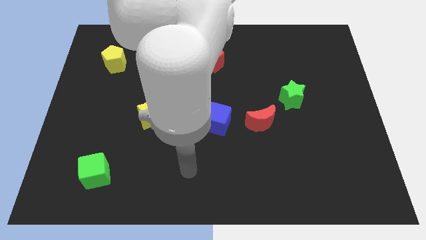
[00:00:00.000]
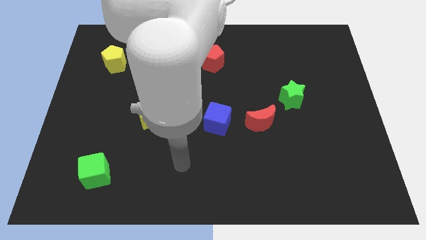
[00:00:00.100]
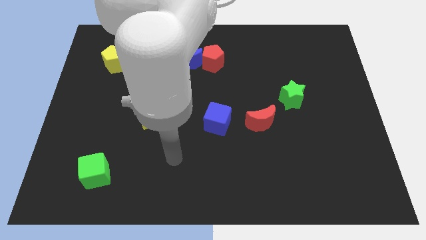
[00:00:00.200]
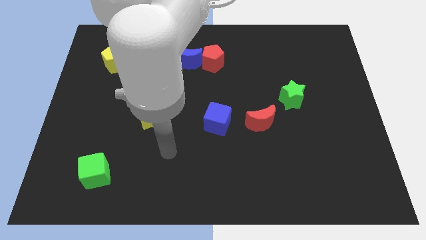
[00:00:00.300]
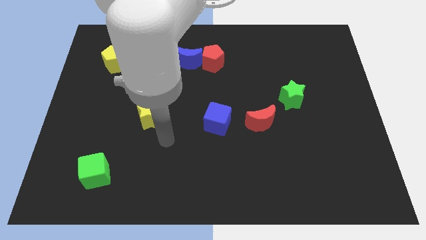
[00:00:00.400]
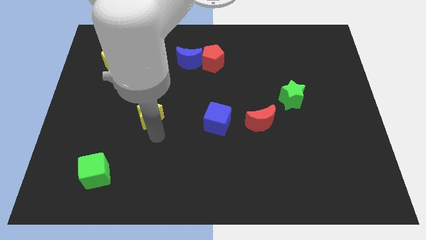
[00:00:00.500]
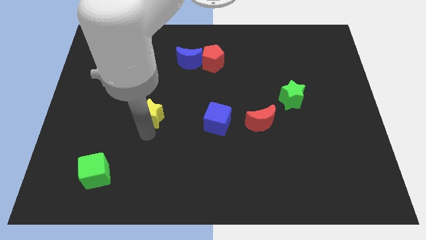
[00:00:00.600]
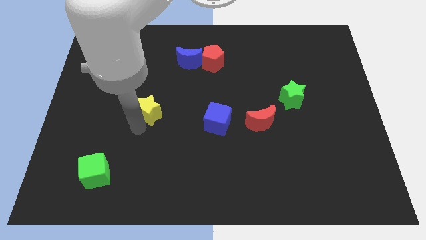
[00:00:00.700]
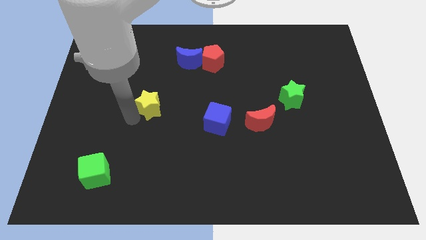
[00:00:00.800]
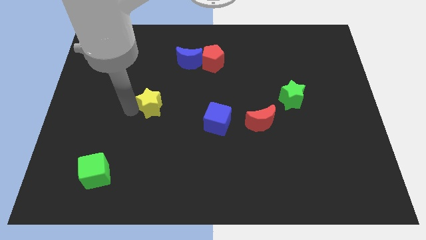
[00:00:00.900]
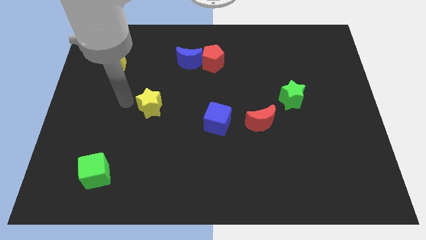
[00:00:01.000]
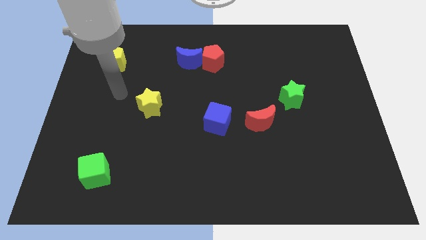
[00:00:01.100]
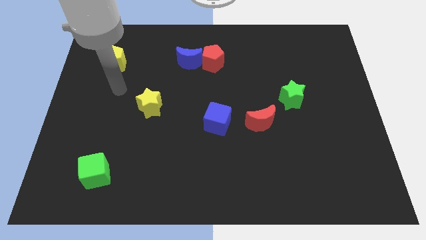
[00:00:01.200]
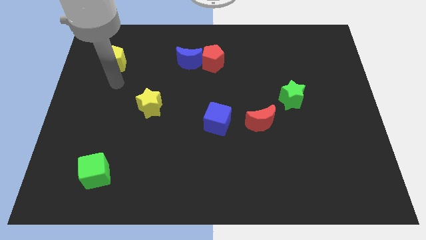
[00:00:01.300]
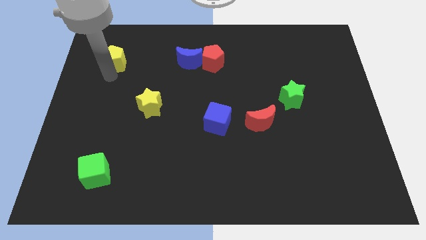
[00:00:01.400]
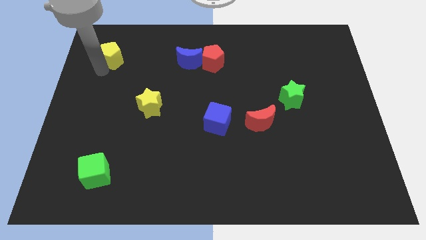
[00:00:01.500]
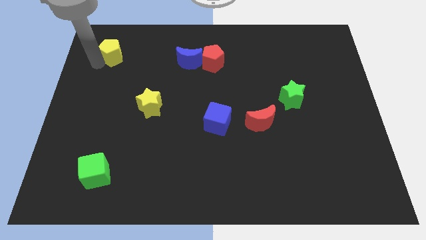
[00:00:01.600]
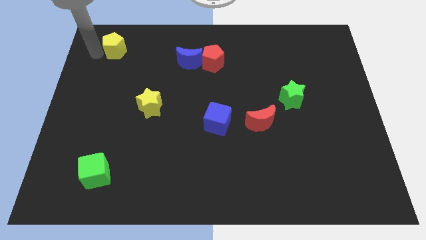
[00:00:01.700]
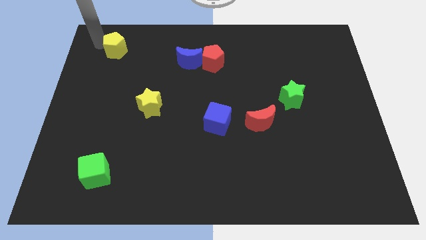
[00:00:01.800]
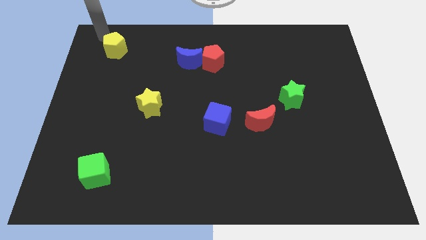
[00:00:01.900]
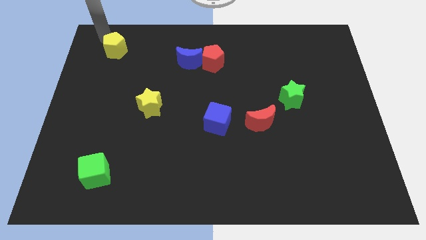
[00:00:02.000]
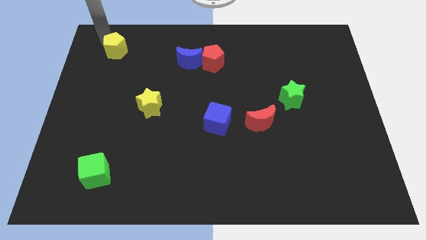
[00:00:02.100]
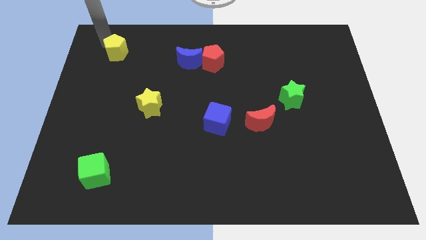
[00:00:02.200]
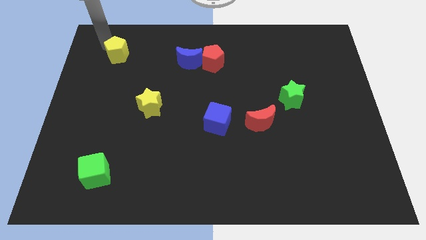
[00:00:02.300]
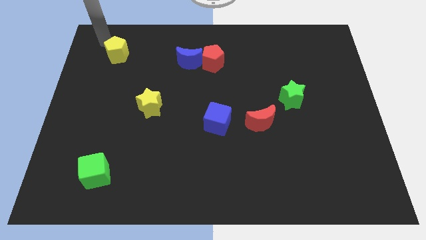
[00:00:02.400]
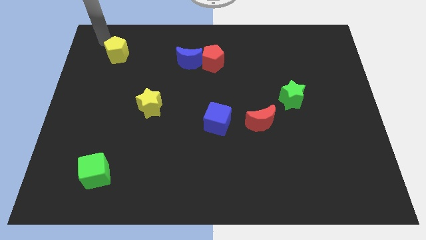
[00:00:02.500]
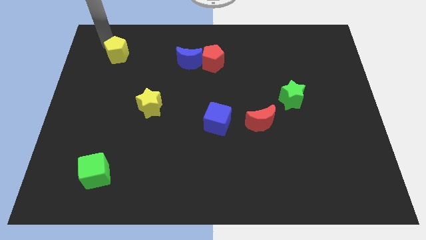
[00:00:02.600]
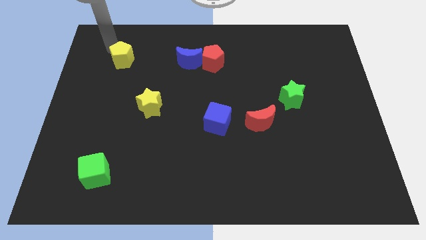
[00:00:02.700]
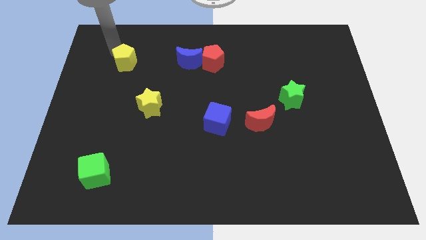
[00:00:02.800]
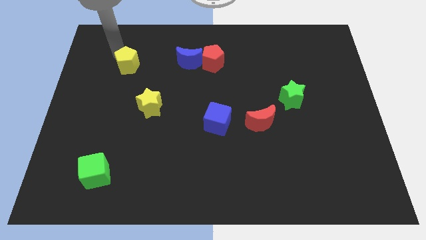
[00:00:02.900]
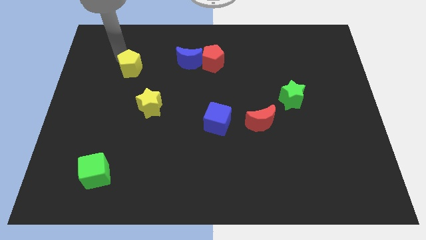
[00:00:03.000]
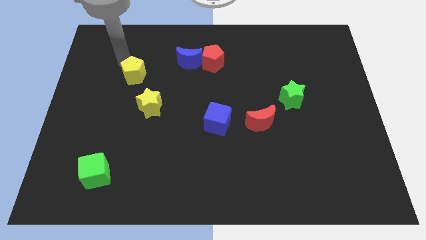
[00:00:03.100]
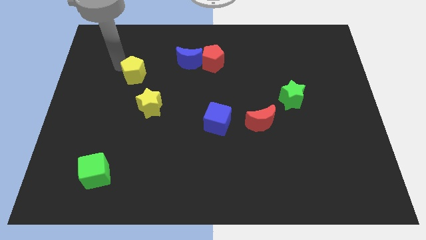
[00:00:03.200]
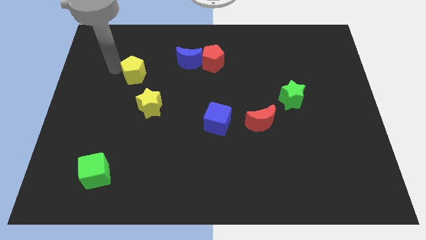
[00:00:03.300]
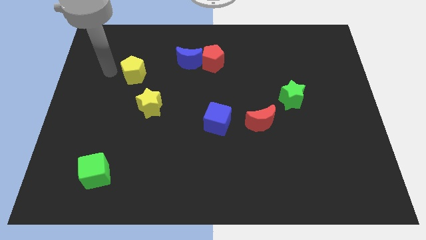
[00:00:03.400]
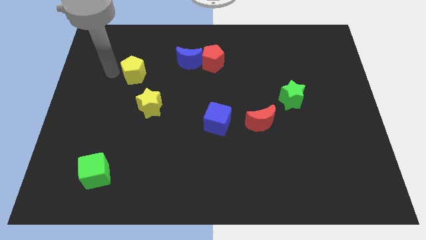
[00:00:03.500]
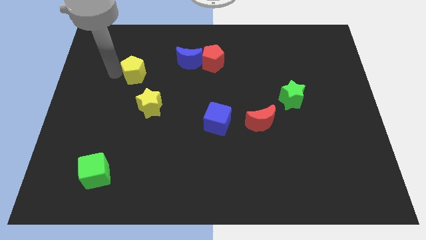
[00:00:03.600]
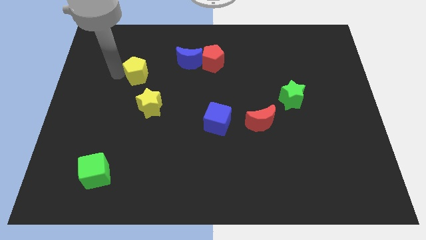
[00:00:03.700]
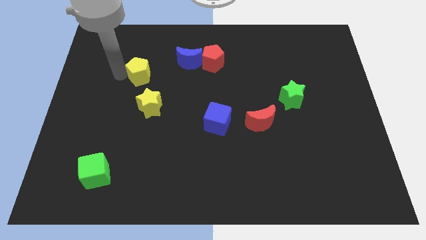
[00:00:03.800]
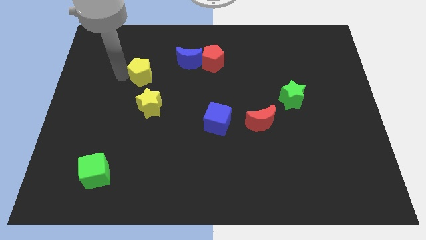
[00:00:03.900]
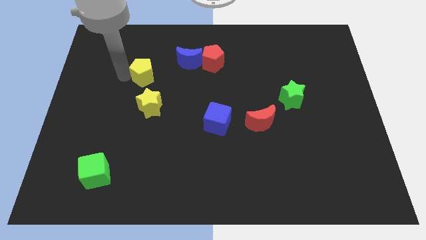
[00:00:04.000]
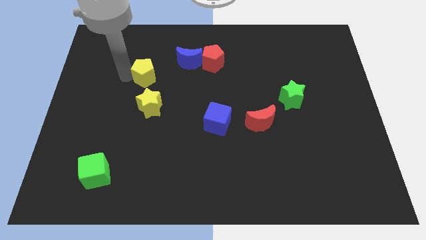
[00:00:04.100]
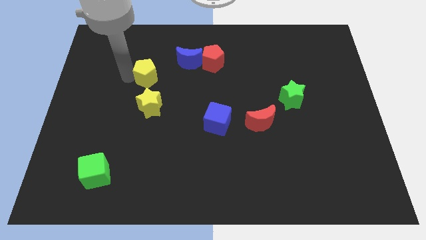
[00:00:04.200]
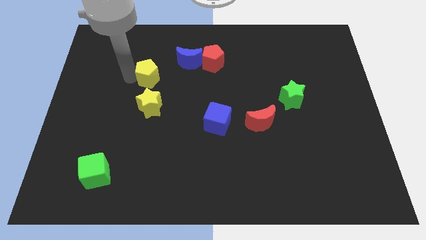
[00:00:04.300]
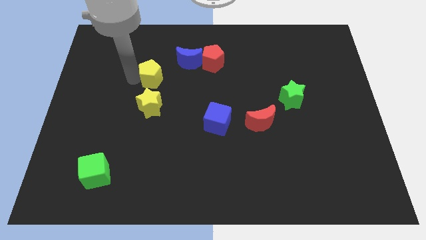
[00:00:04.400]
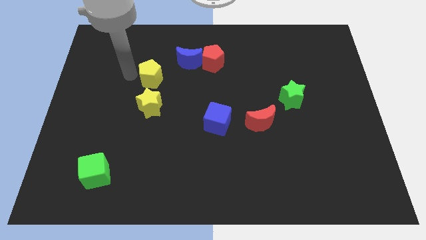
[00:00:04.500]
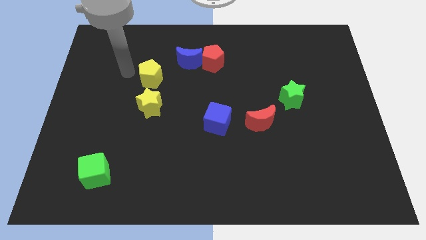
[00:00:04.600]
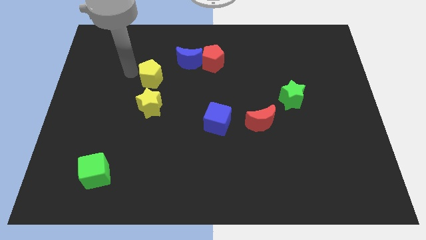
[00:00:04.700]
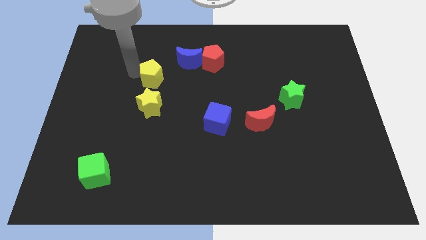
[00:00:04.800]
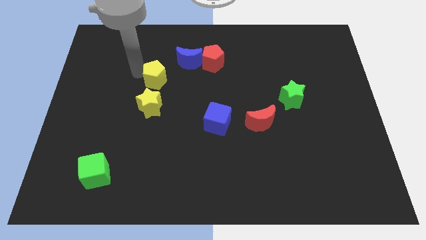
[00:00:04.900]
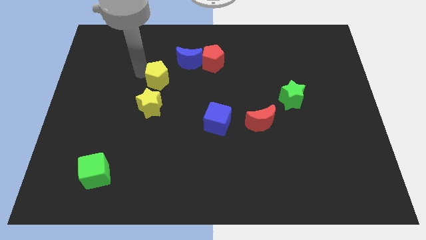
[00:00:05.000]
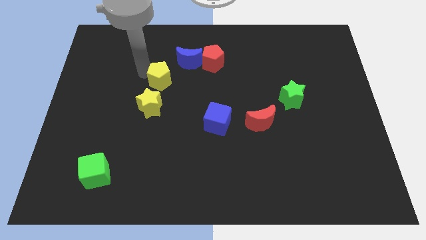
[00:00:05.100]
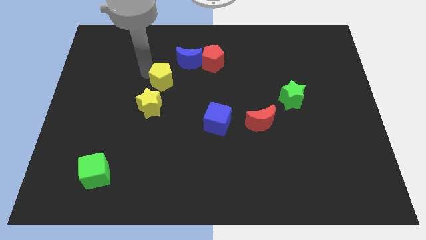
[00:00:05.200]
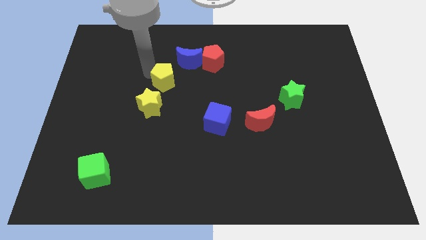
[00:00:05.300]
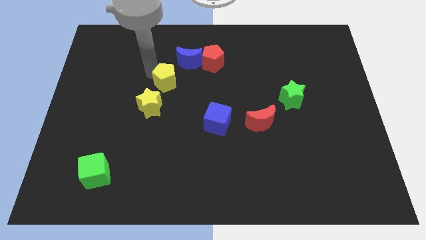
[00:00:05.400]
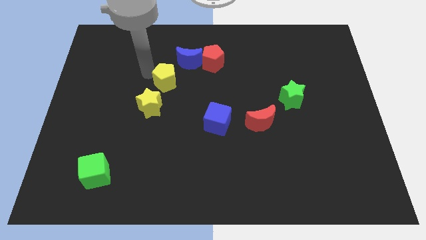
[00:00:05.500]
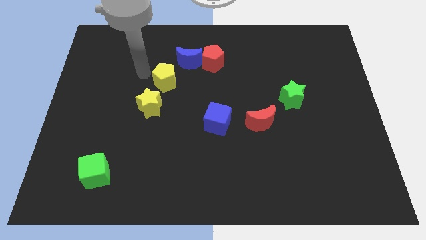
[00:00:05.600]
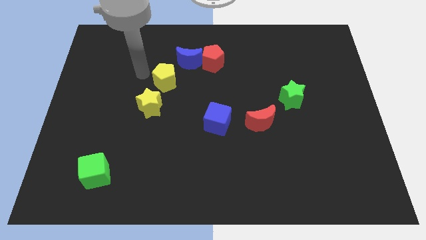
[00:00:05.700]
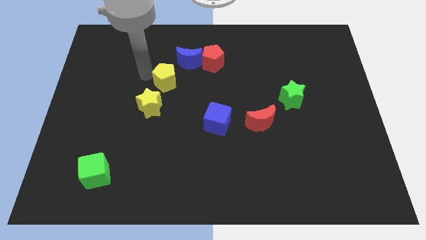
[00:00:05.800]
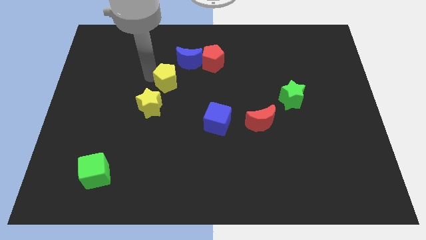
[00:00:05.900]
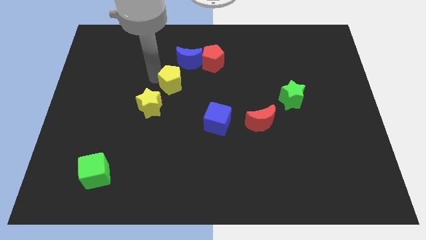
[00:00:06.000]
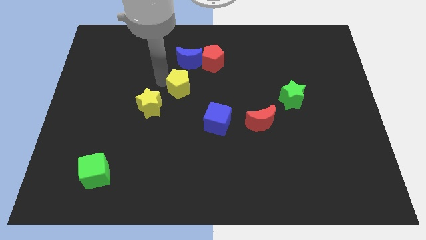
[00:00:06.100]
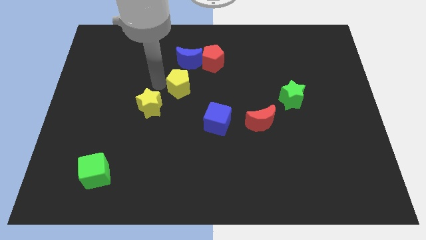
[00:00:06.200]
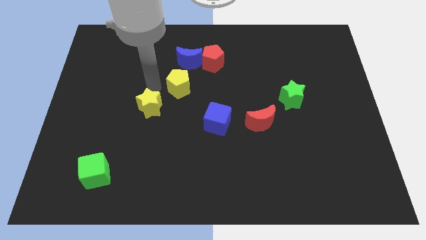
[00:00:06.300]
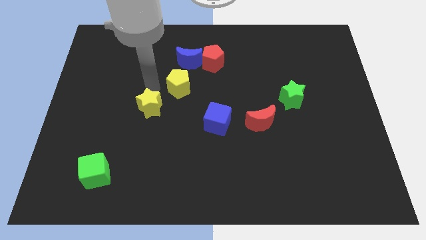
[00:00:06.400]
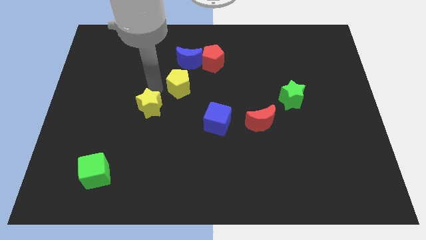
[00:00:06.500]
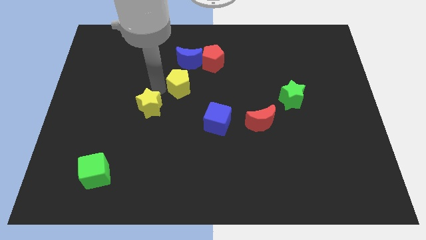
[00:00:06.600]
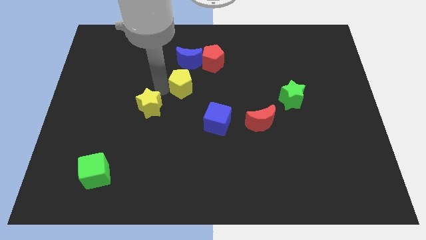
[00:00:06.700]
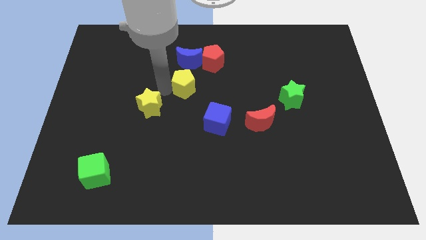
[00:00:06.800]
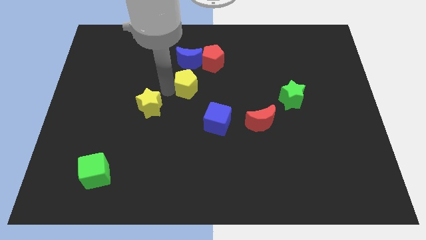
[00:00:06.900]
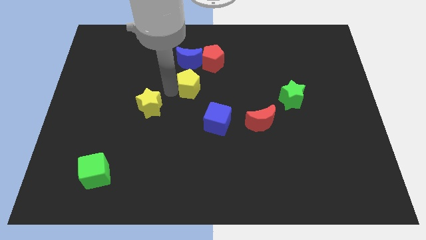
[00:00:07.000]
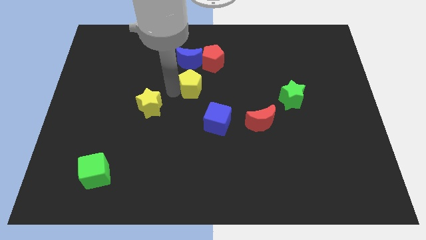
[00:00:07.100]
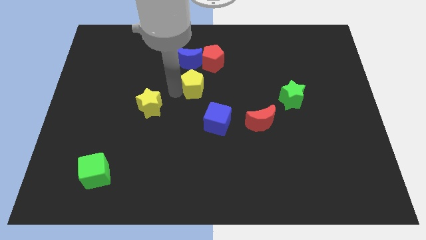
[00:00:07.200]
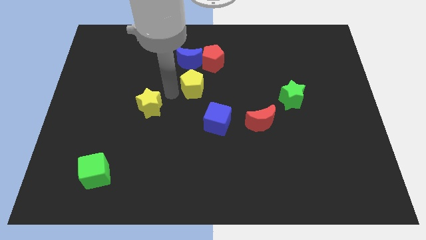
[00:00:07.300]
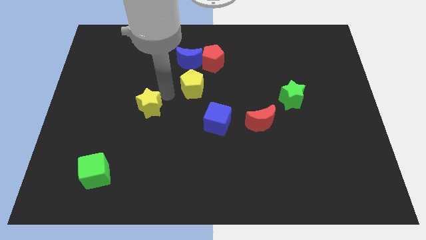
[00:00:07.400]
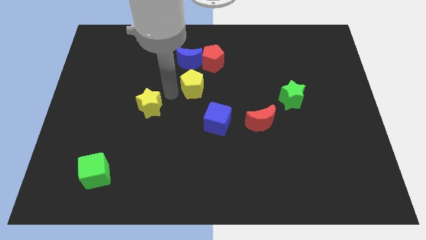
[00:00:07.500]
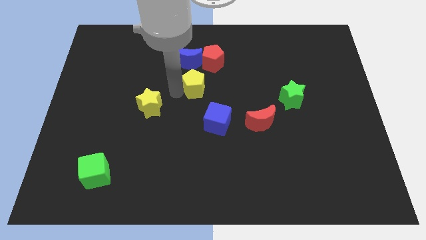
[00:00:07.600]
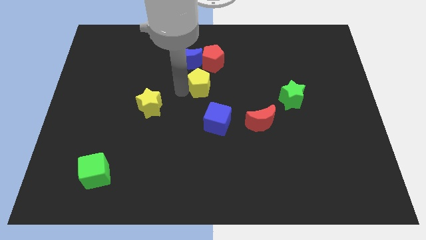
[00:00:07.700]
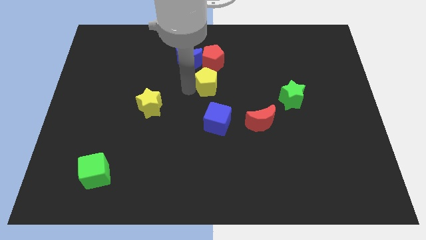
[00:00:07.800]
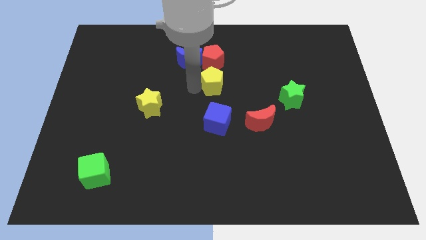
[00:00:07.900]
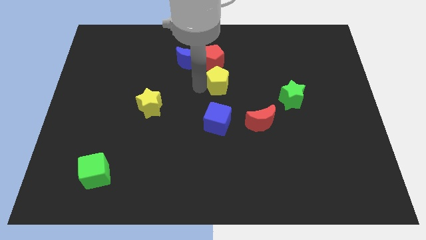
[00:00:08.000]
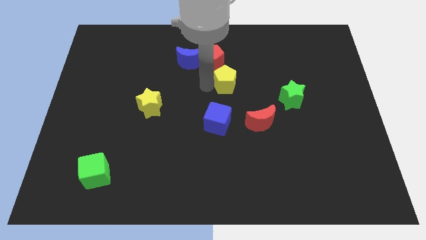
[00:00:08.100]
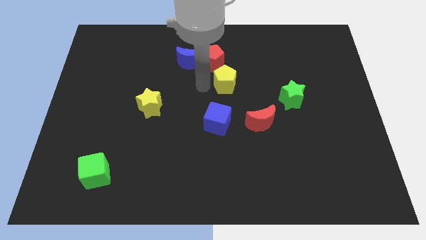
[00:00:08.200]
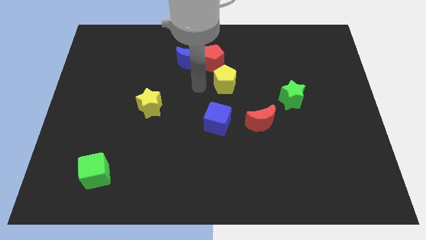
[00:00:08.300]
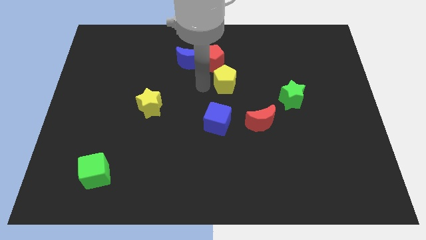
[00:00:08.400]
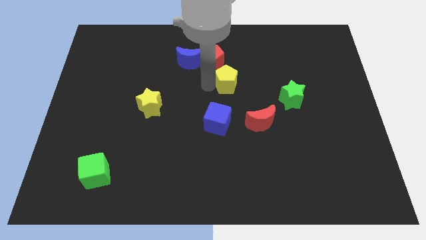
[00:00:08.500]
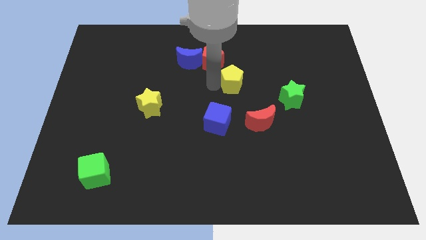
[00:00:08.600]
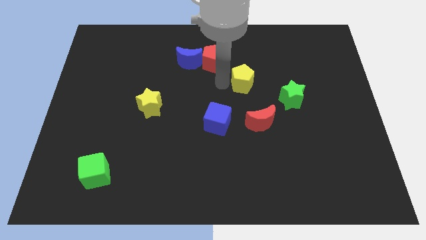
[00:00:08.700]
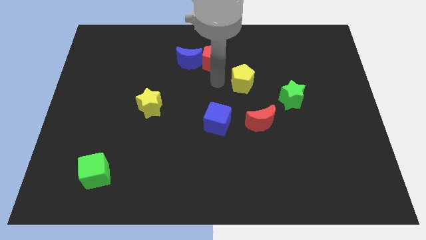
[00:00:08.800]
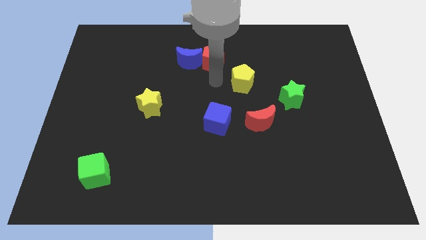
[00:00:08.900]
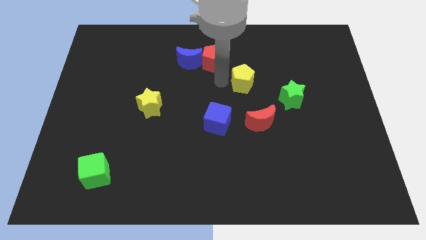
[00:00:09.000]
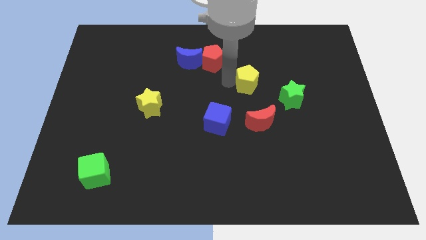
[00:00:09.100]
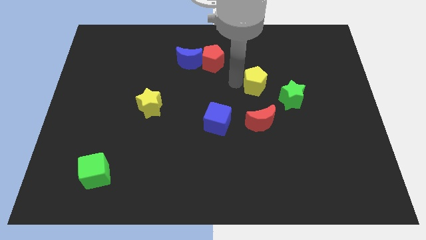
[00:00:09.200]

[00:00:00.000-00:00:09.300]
push the yellow pentagon to the top left side of the green star
